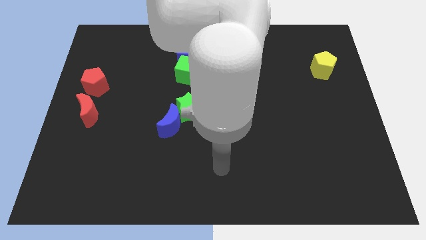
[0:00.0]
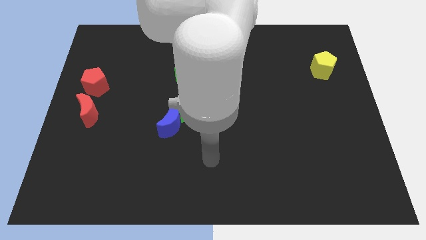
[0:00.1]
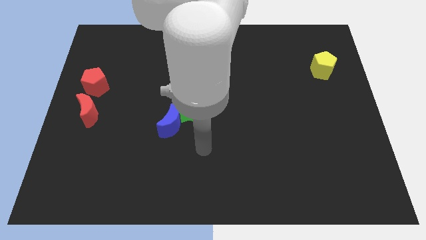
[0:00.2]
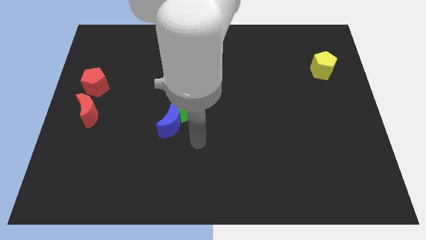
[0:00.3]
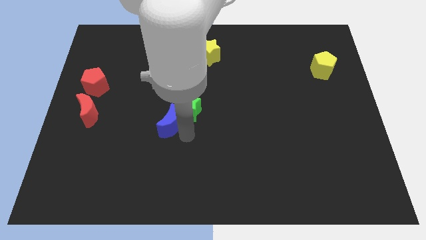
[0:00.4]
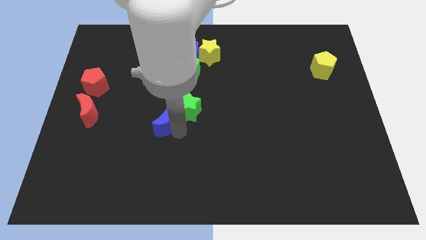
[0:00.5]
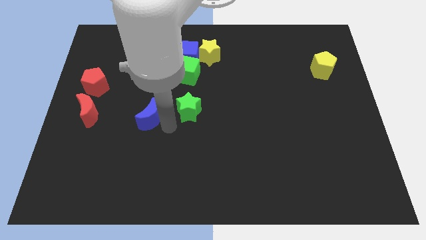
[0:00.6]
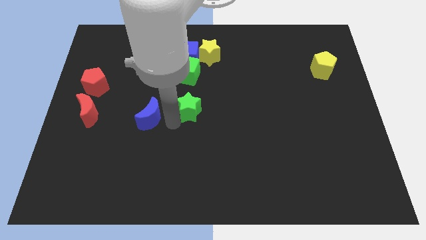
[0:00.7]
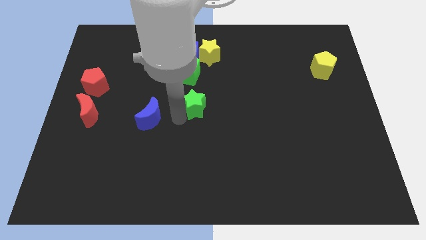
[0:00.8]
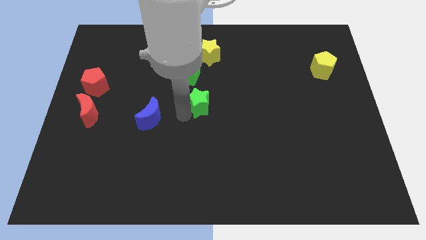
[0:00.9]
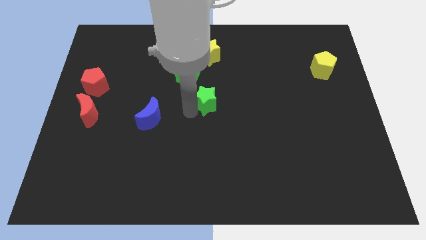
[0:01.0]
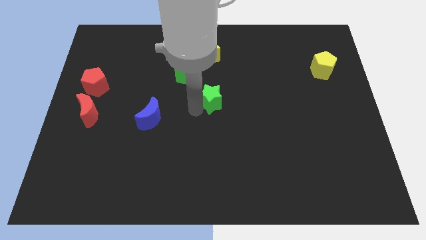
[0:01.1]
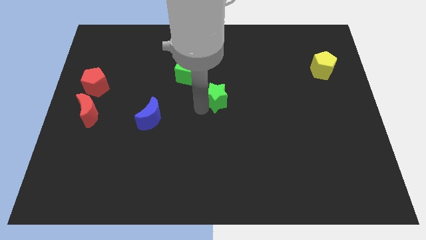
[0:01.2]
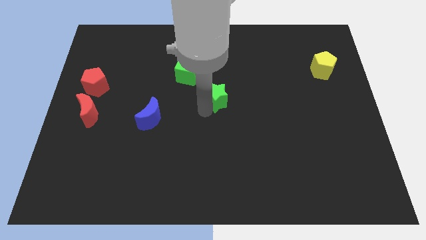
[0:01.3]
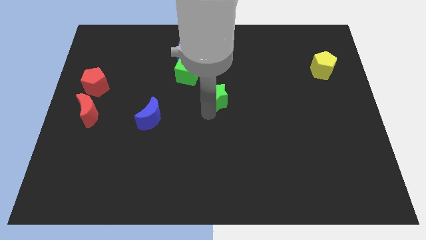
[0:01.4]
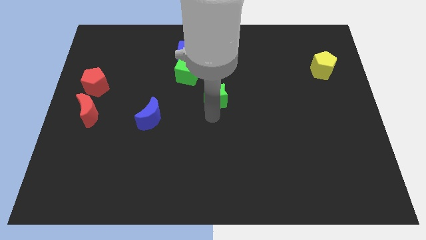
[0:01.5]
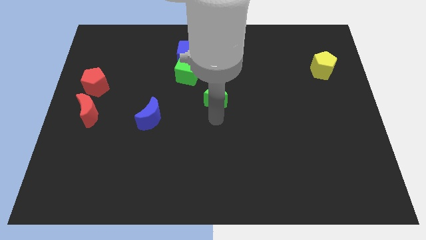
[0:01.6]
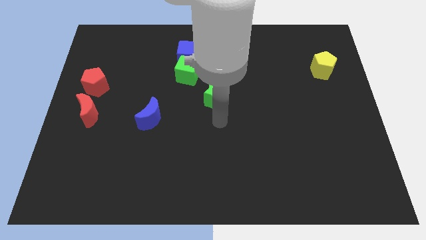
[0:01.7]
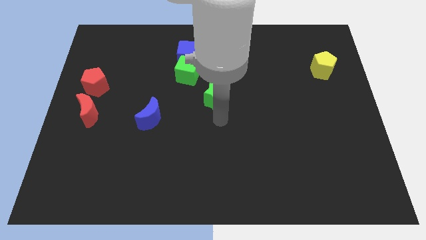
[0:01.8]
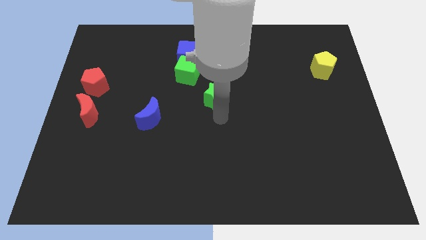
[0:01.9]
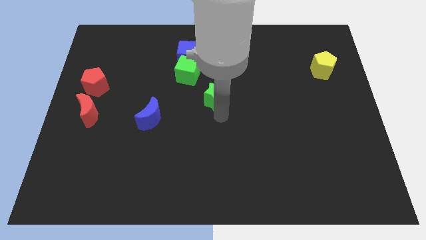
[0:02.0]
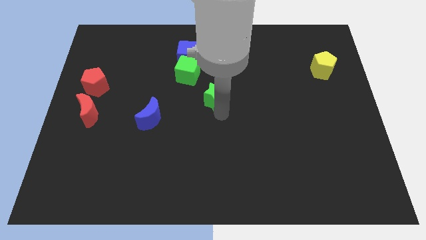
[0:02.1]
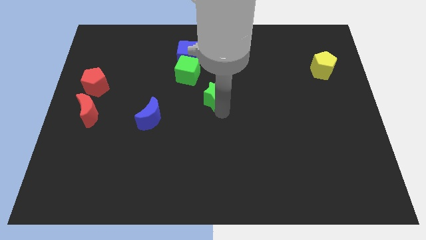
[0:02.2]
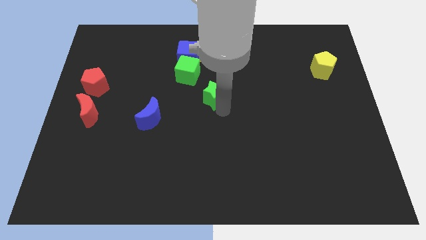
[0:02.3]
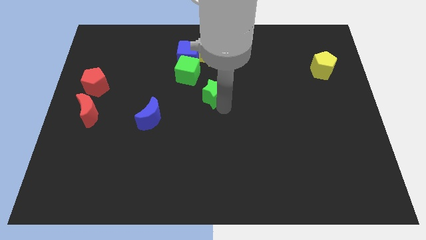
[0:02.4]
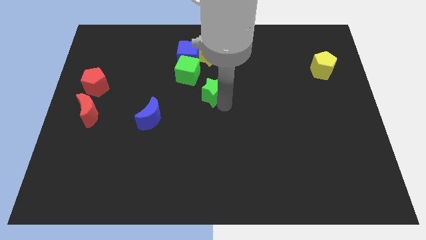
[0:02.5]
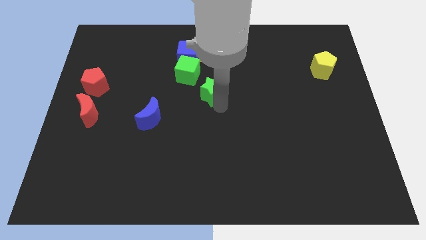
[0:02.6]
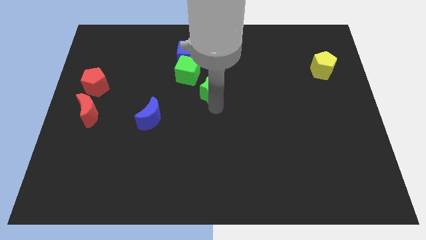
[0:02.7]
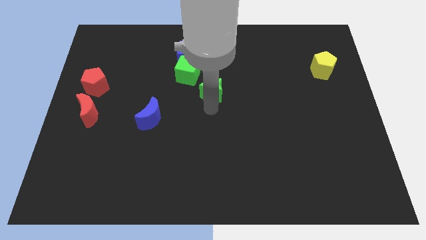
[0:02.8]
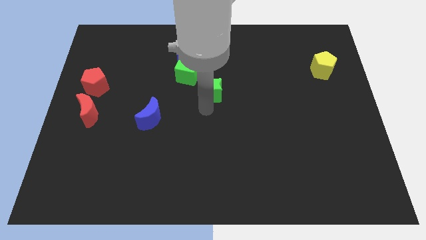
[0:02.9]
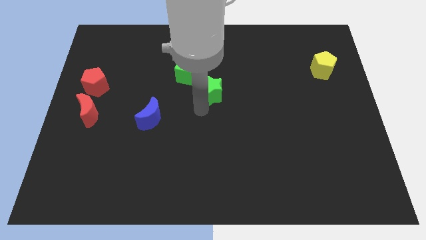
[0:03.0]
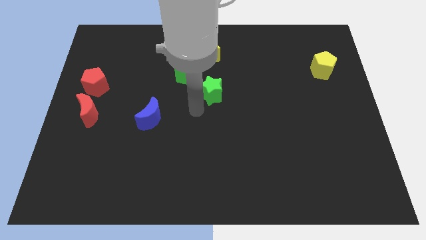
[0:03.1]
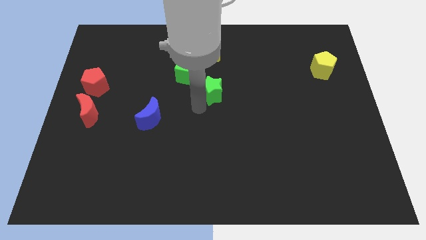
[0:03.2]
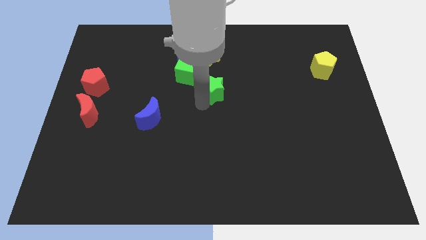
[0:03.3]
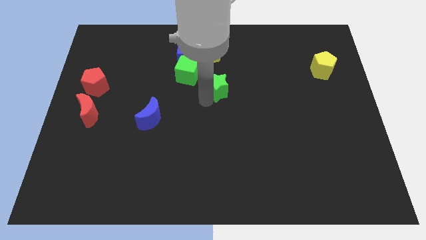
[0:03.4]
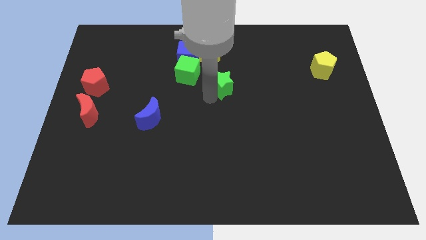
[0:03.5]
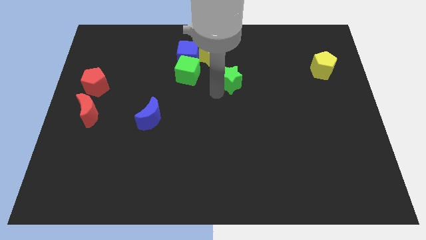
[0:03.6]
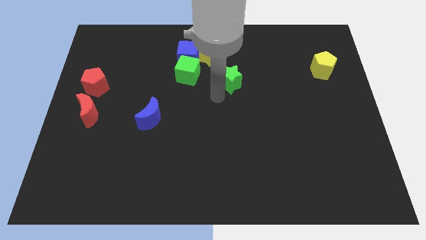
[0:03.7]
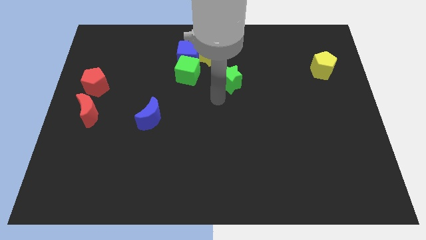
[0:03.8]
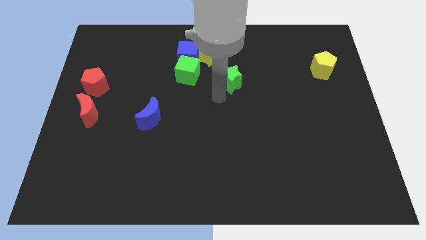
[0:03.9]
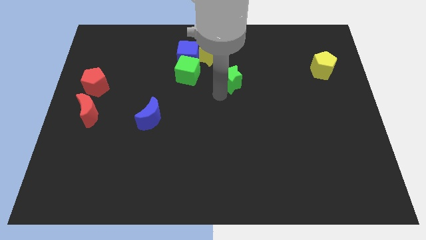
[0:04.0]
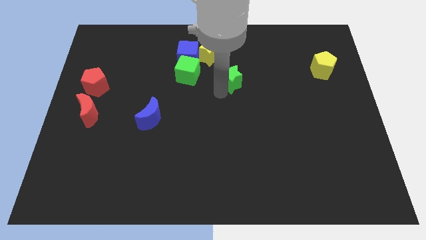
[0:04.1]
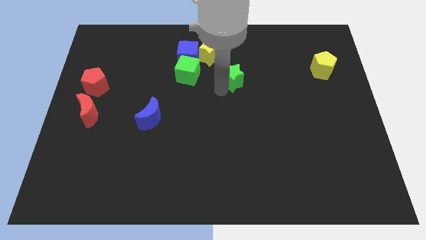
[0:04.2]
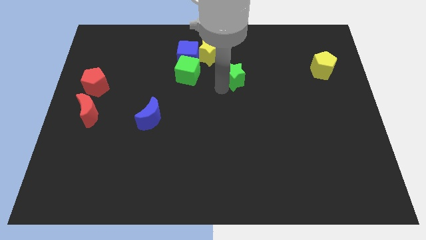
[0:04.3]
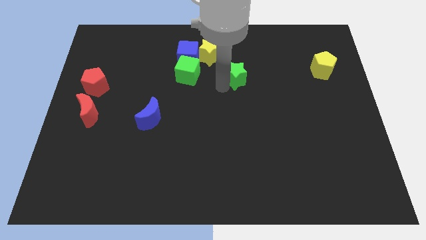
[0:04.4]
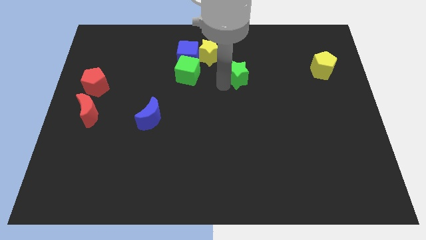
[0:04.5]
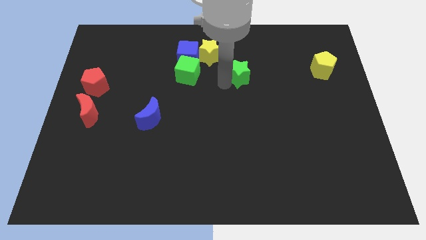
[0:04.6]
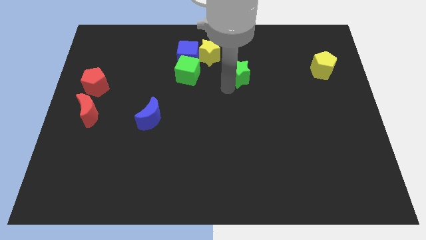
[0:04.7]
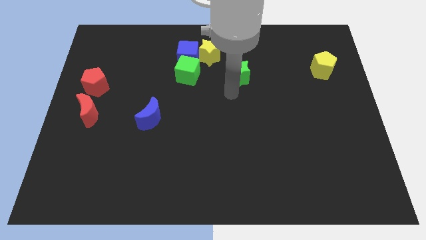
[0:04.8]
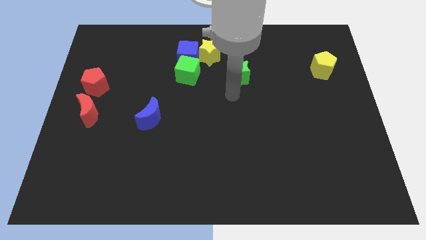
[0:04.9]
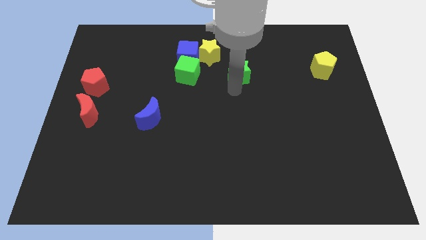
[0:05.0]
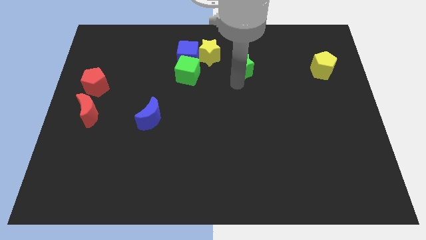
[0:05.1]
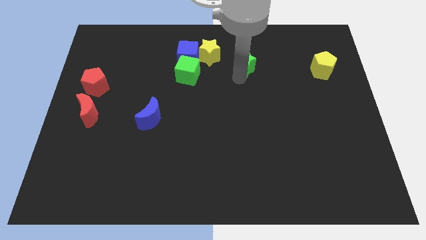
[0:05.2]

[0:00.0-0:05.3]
put the green star just right of the yellow star

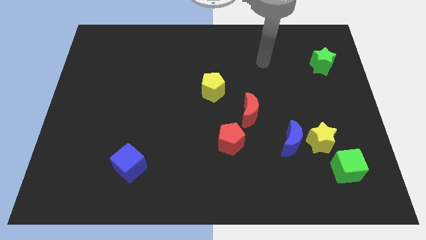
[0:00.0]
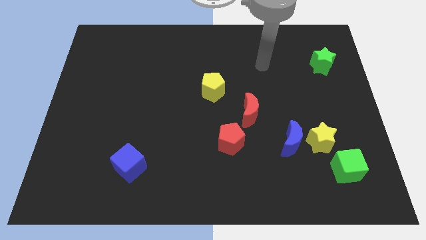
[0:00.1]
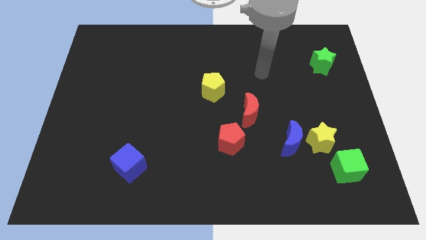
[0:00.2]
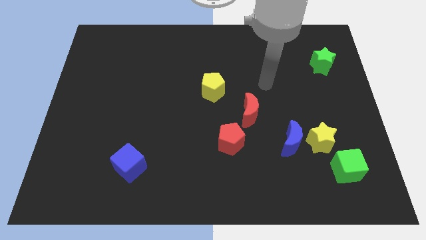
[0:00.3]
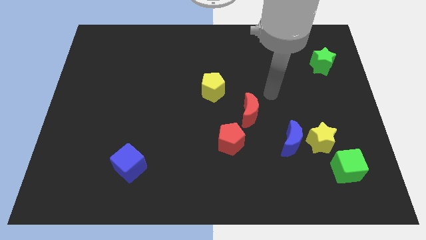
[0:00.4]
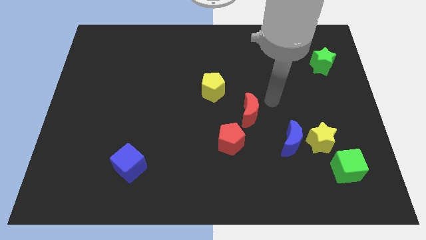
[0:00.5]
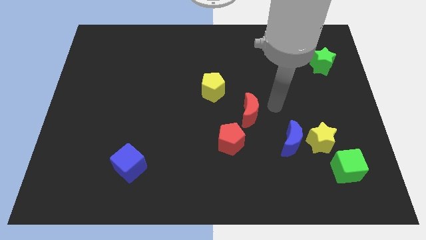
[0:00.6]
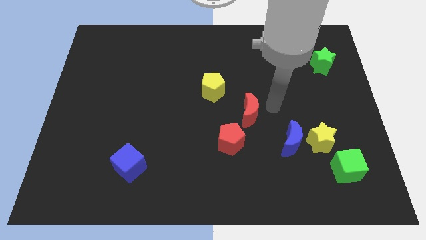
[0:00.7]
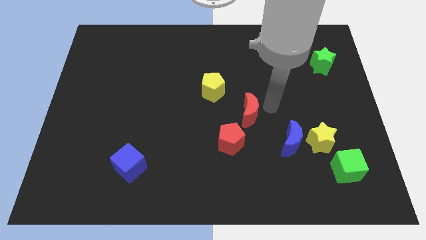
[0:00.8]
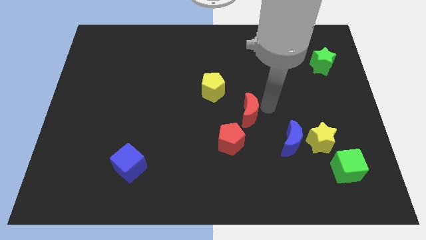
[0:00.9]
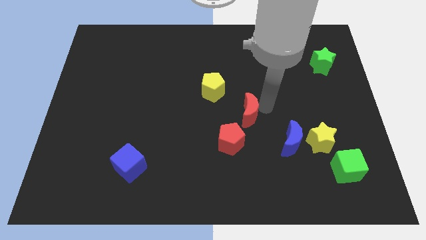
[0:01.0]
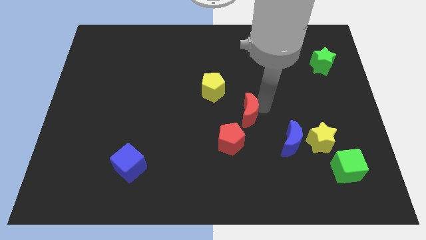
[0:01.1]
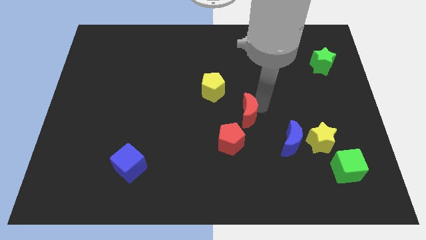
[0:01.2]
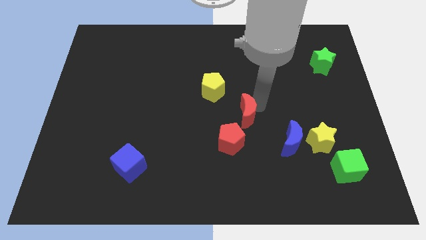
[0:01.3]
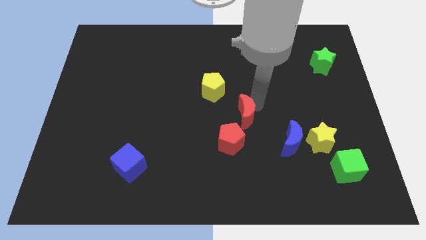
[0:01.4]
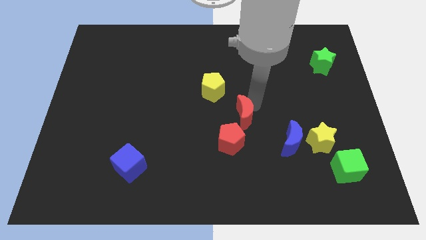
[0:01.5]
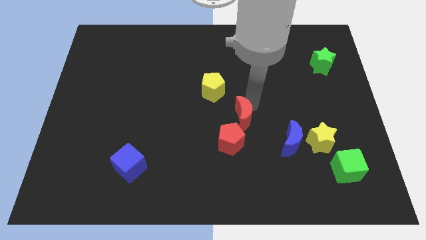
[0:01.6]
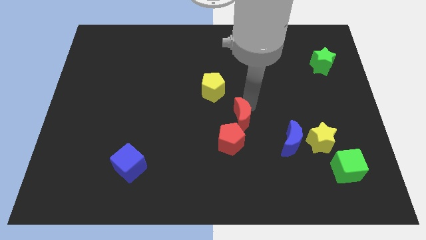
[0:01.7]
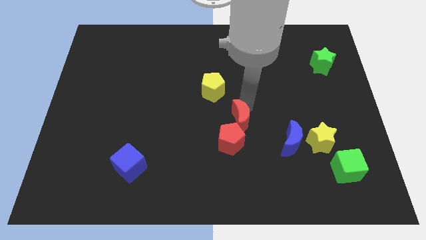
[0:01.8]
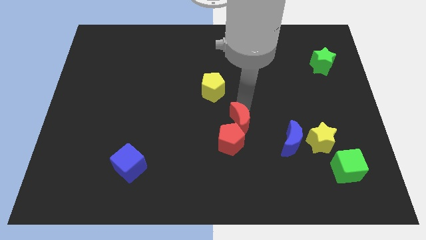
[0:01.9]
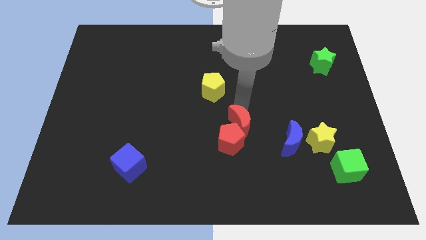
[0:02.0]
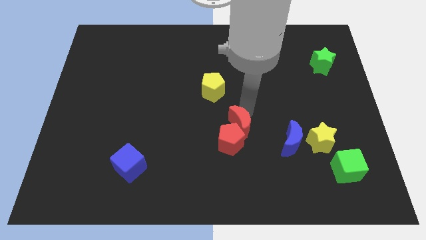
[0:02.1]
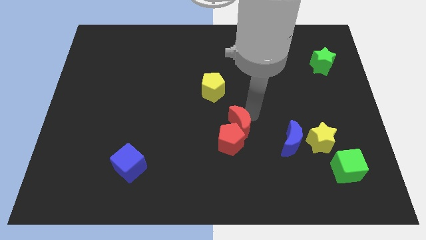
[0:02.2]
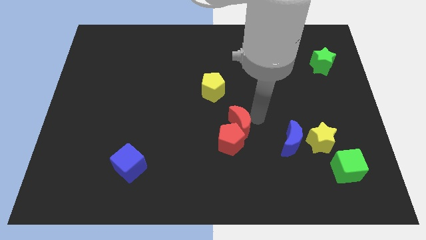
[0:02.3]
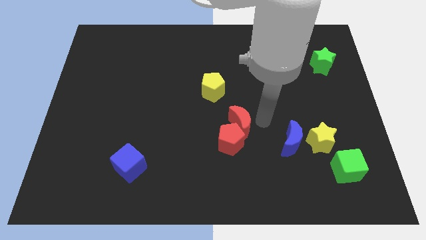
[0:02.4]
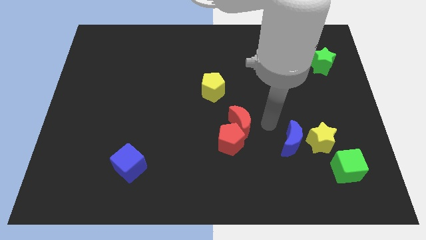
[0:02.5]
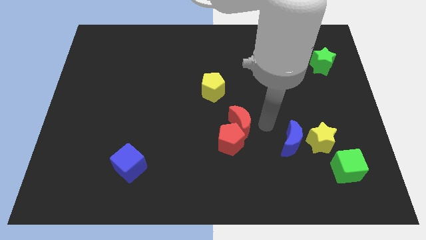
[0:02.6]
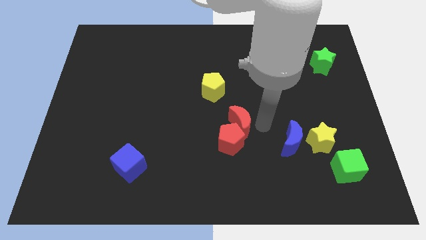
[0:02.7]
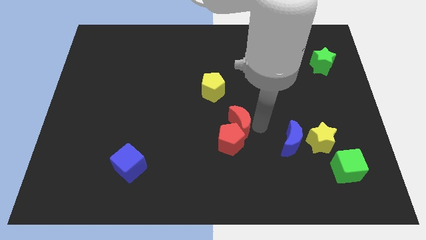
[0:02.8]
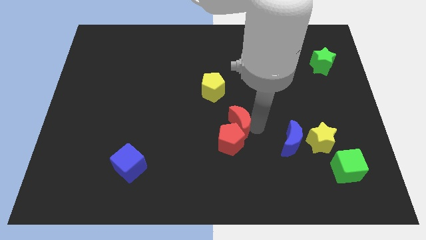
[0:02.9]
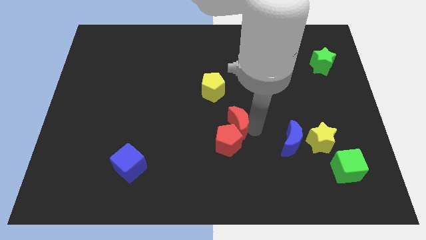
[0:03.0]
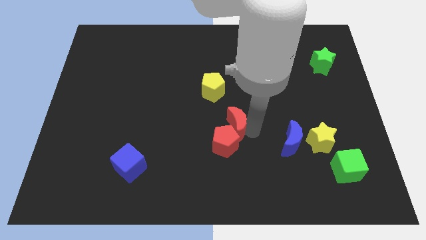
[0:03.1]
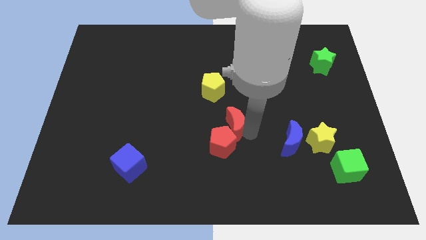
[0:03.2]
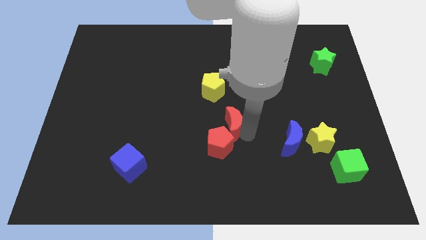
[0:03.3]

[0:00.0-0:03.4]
push the red moon below the yellow pentagon
